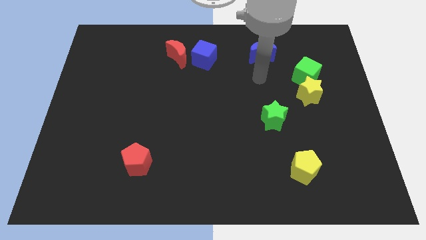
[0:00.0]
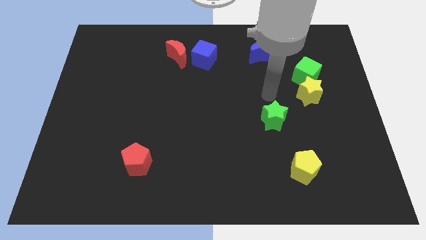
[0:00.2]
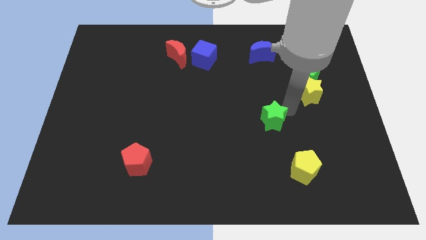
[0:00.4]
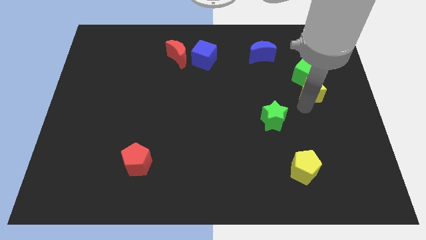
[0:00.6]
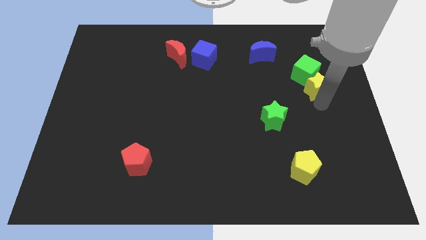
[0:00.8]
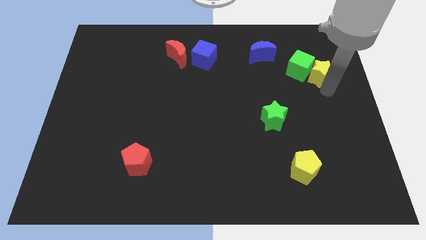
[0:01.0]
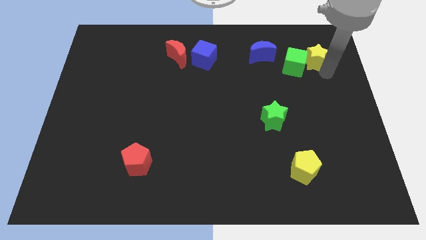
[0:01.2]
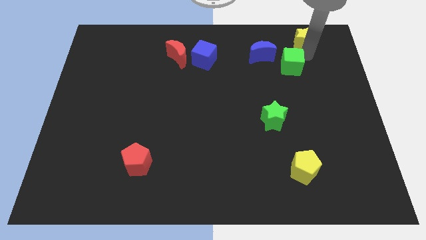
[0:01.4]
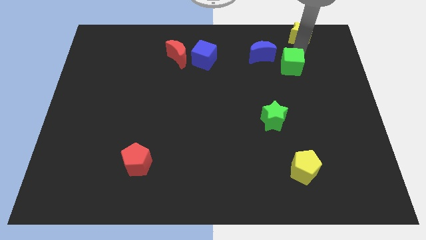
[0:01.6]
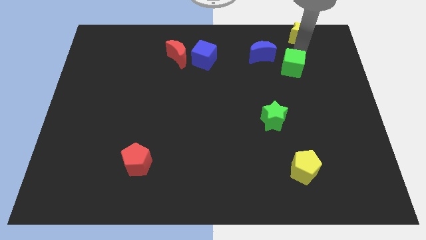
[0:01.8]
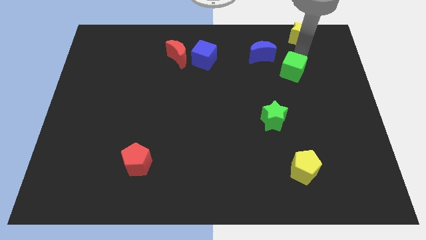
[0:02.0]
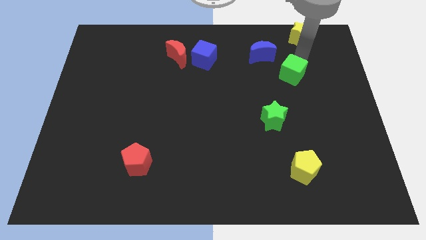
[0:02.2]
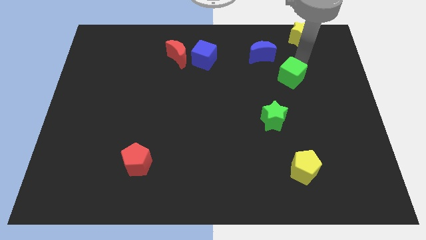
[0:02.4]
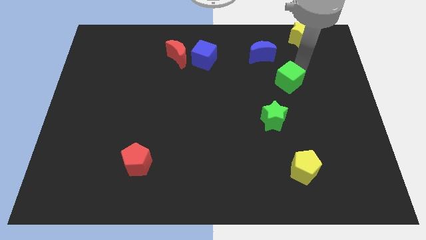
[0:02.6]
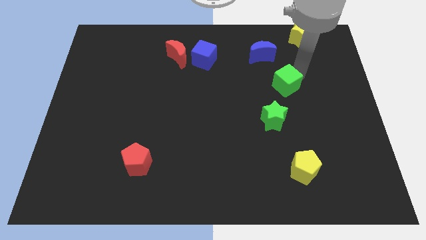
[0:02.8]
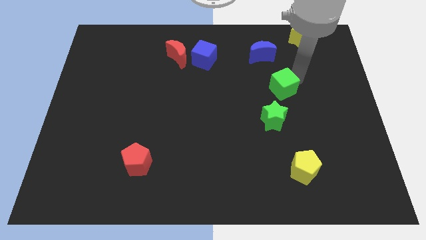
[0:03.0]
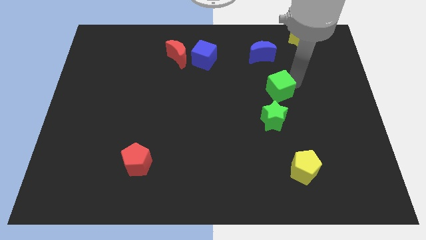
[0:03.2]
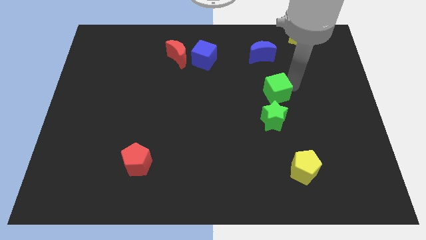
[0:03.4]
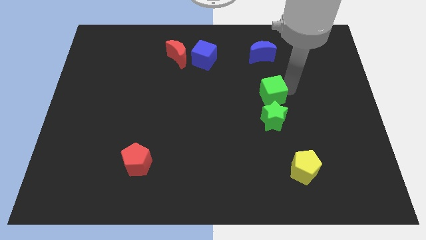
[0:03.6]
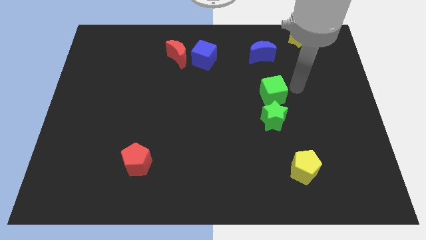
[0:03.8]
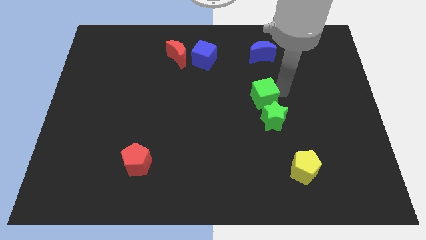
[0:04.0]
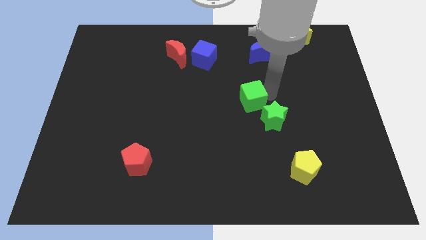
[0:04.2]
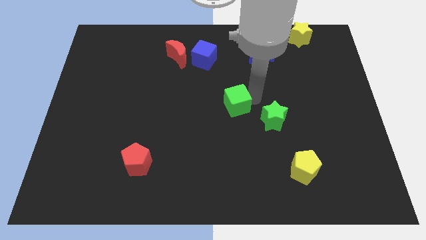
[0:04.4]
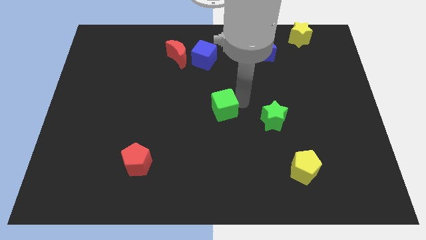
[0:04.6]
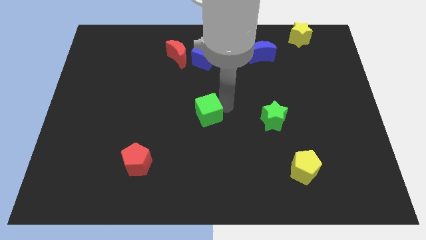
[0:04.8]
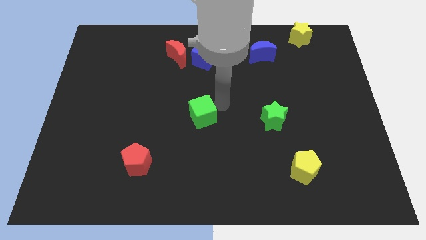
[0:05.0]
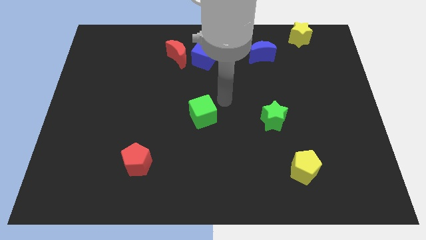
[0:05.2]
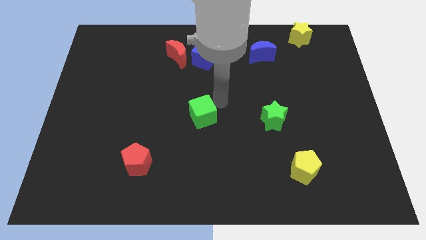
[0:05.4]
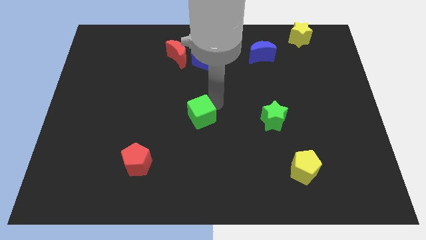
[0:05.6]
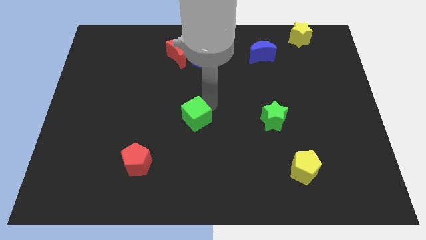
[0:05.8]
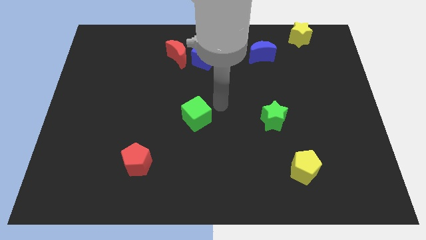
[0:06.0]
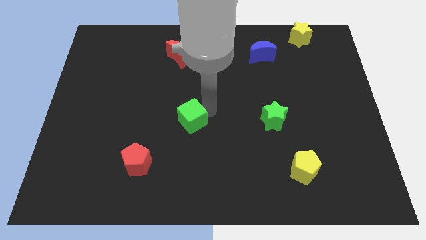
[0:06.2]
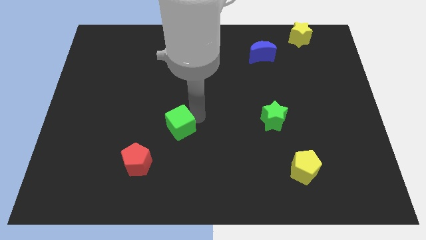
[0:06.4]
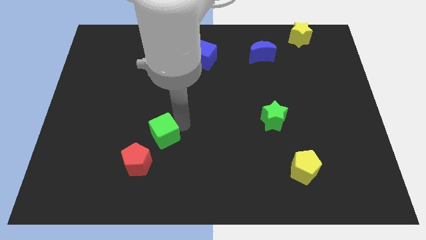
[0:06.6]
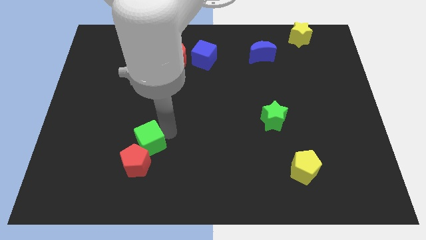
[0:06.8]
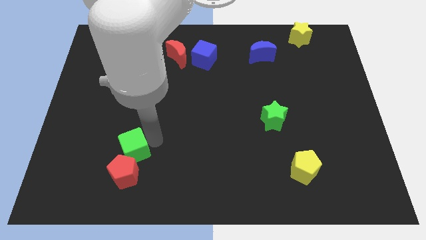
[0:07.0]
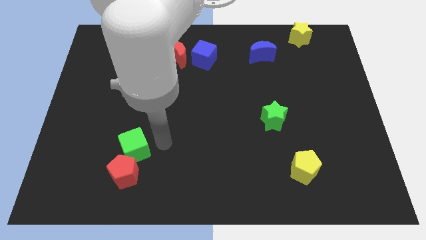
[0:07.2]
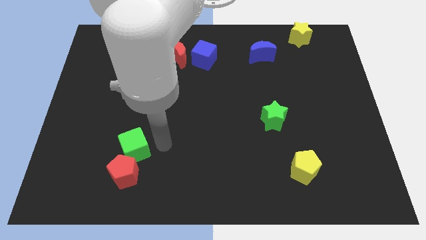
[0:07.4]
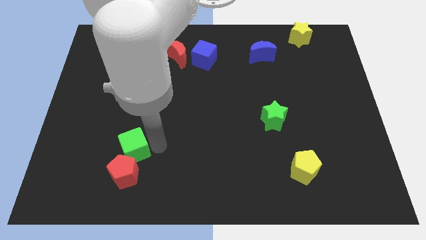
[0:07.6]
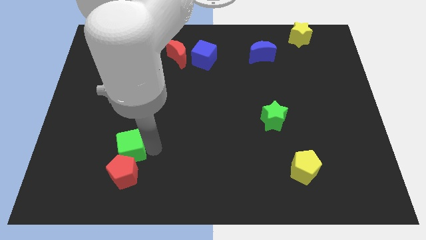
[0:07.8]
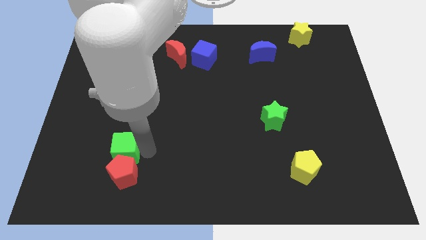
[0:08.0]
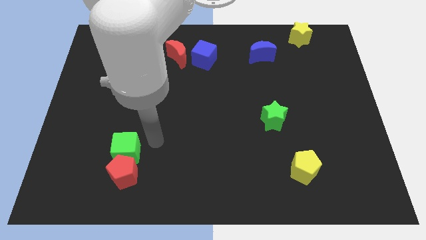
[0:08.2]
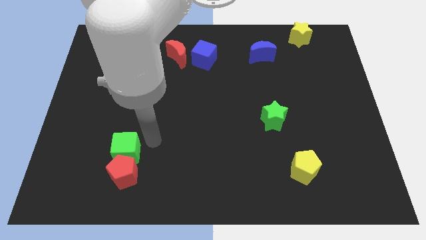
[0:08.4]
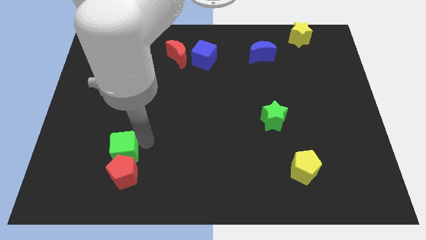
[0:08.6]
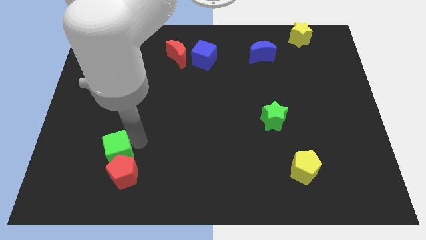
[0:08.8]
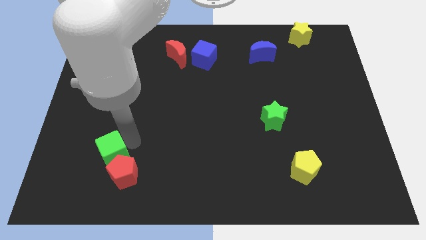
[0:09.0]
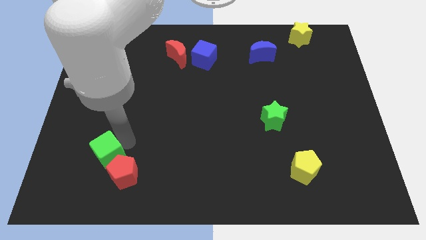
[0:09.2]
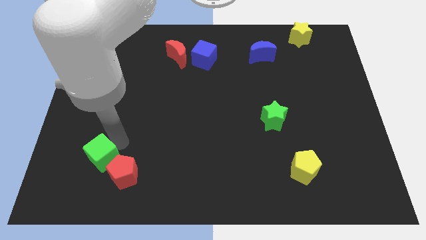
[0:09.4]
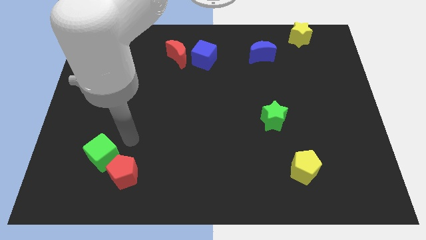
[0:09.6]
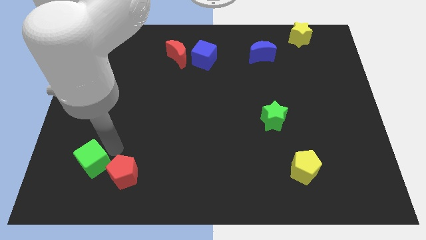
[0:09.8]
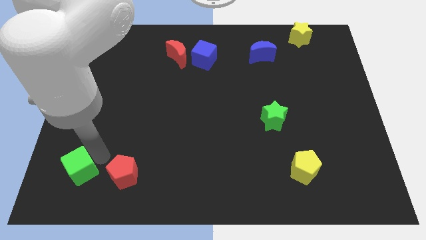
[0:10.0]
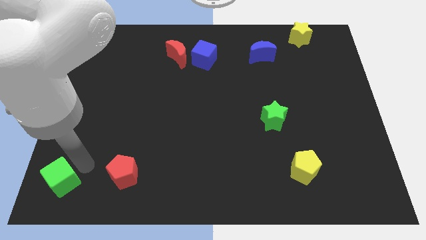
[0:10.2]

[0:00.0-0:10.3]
slide the green cube to the lower left corner

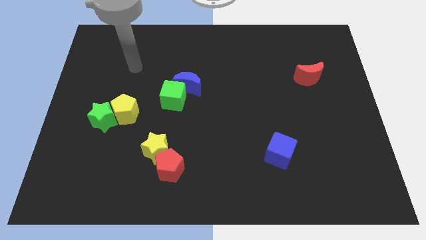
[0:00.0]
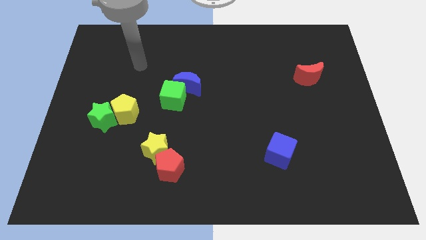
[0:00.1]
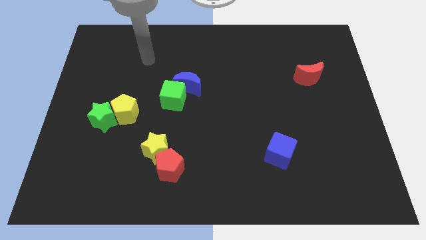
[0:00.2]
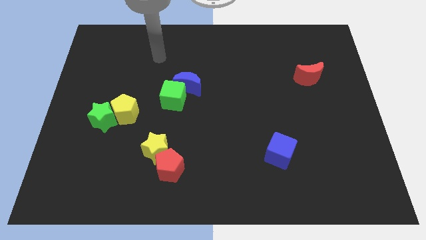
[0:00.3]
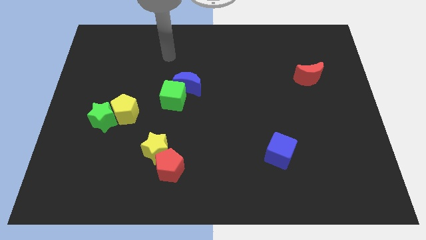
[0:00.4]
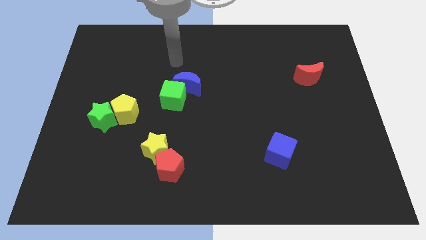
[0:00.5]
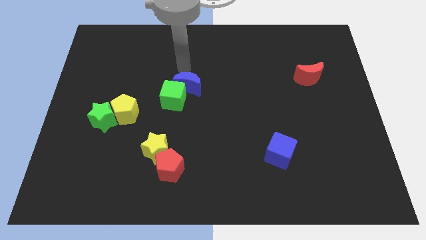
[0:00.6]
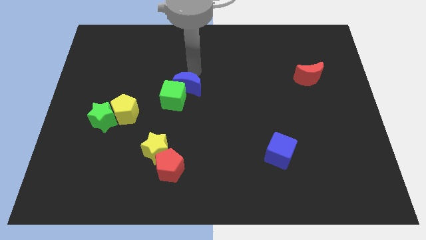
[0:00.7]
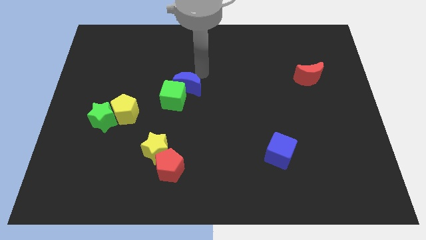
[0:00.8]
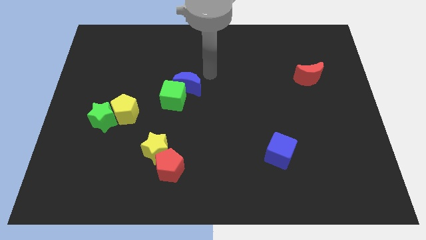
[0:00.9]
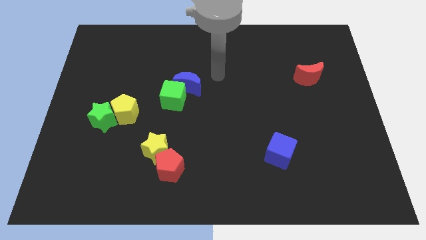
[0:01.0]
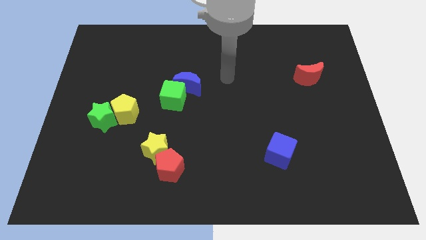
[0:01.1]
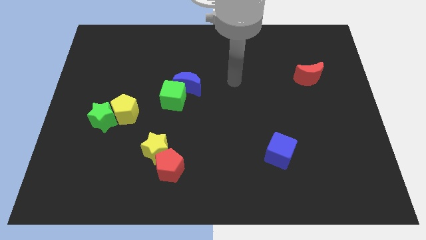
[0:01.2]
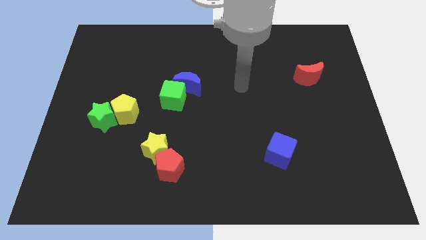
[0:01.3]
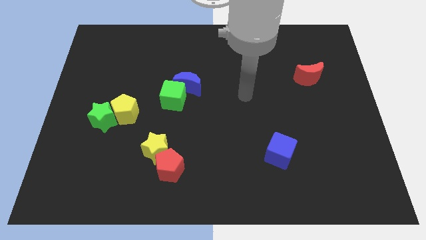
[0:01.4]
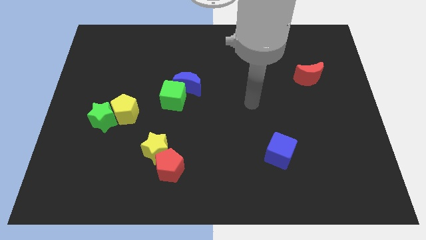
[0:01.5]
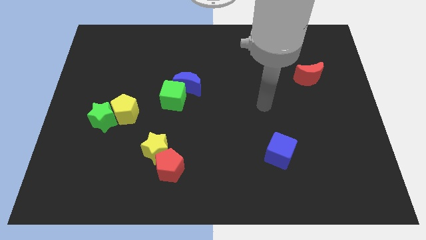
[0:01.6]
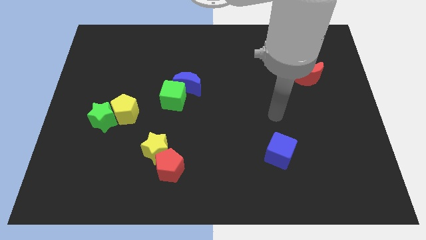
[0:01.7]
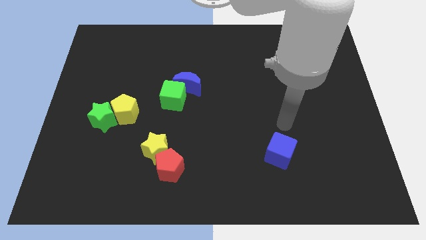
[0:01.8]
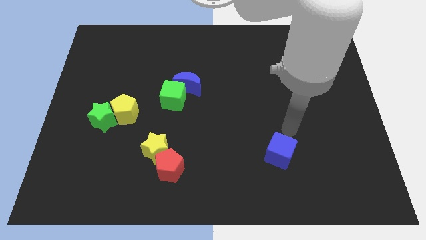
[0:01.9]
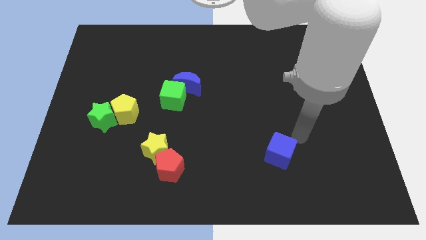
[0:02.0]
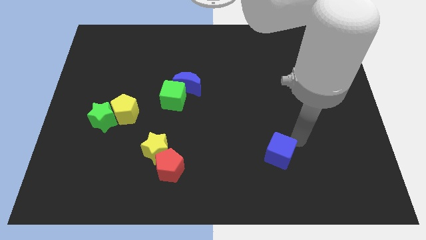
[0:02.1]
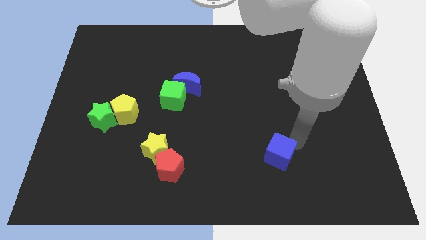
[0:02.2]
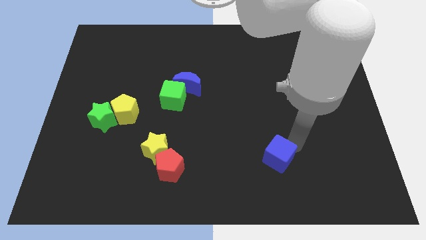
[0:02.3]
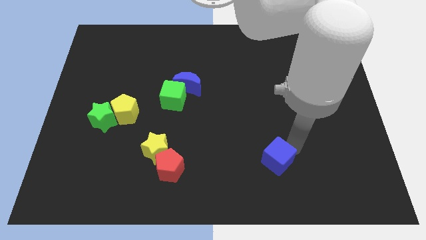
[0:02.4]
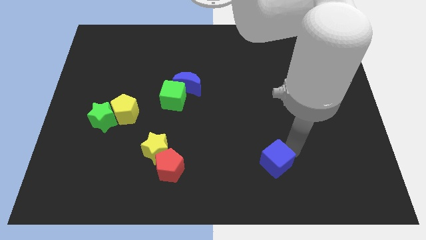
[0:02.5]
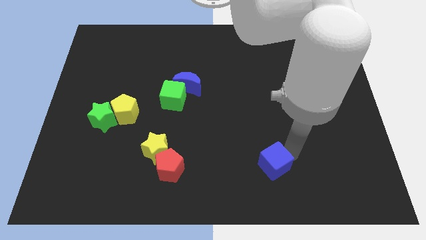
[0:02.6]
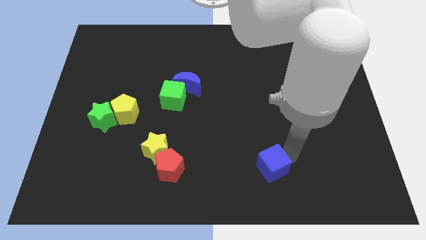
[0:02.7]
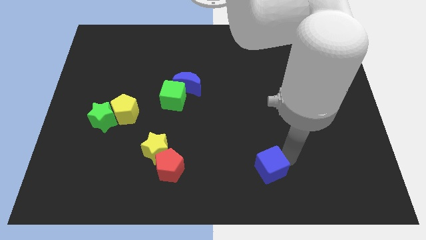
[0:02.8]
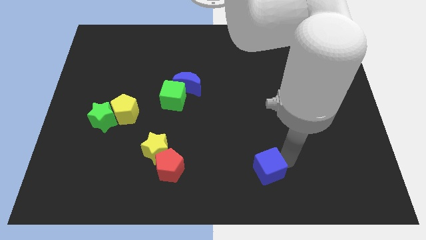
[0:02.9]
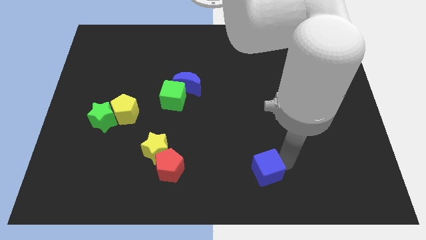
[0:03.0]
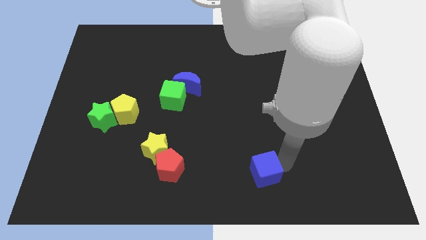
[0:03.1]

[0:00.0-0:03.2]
move the blue cube to the bottom side
